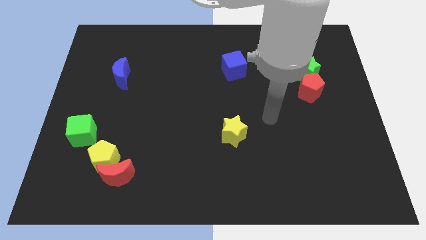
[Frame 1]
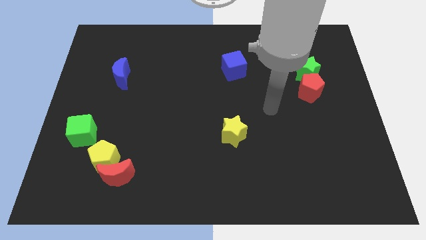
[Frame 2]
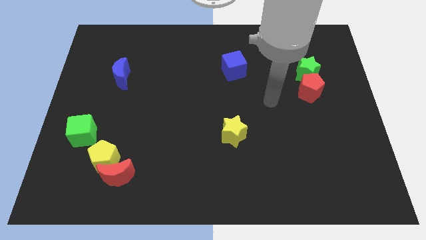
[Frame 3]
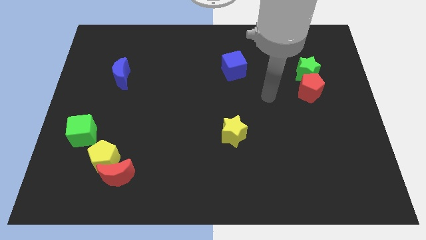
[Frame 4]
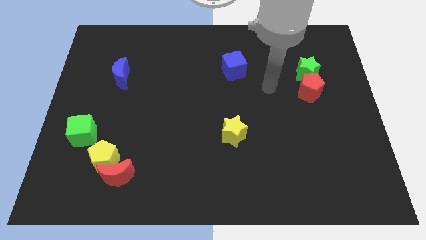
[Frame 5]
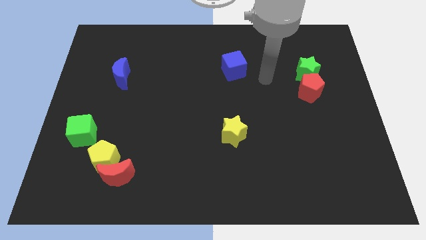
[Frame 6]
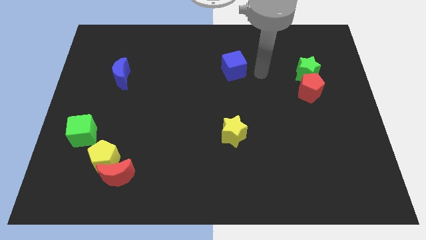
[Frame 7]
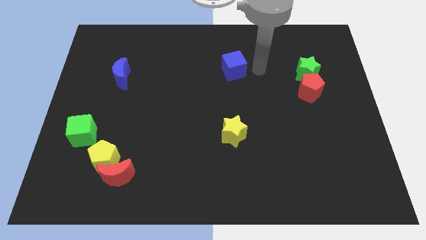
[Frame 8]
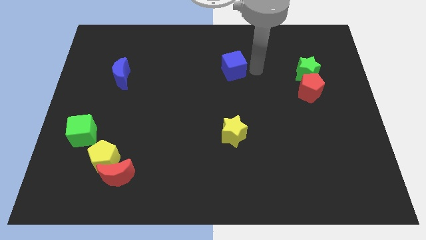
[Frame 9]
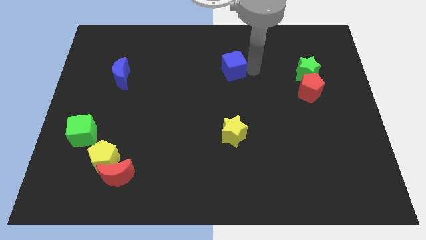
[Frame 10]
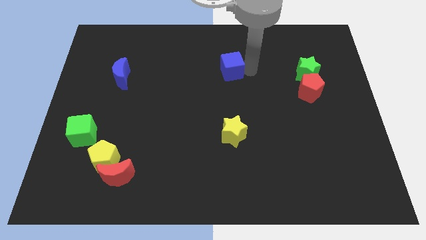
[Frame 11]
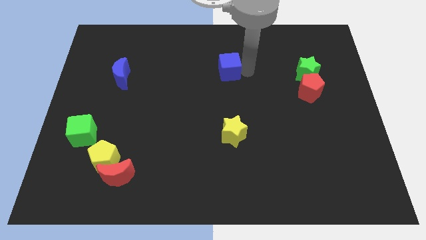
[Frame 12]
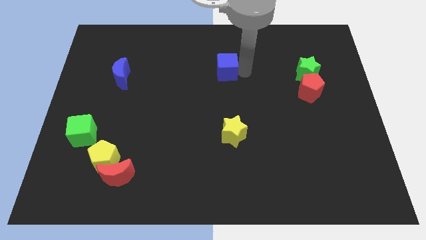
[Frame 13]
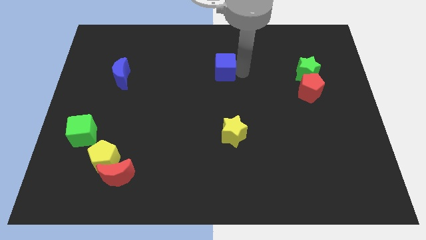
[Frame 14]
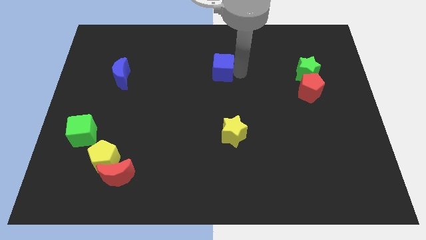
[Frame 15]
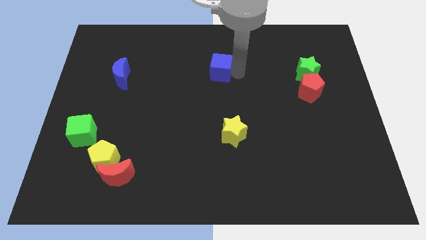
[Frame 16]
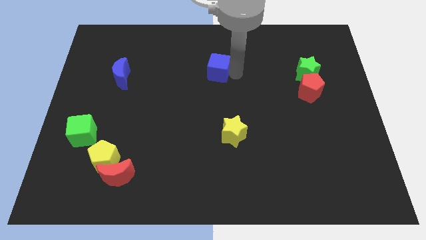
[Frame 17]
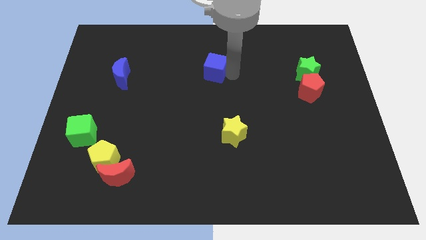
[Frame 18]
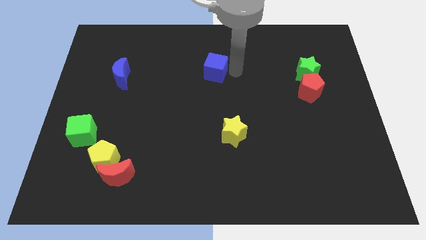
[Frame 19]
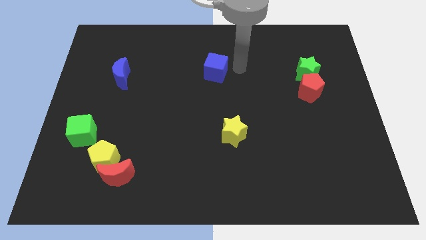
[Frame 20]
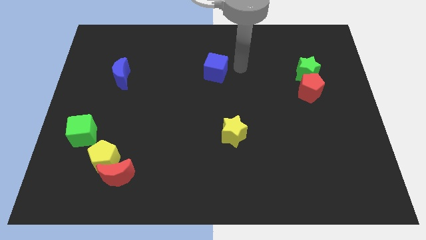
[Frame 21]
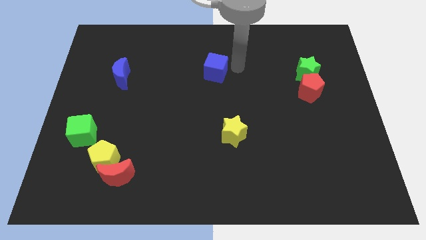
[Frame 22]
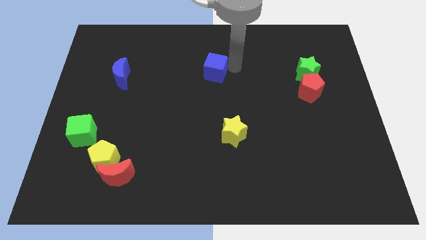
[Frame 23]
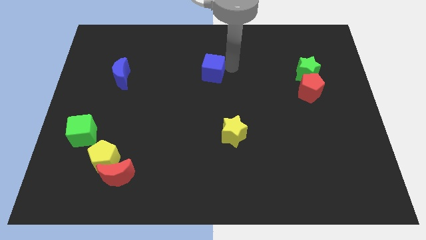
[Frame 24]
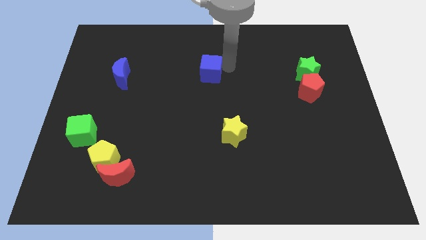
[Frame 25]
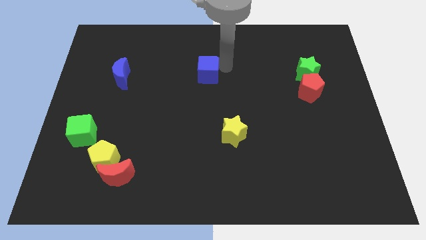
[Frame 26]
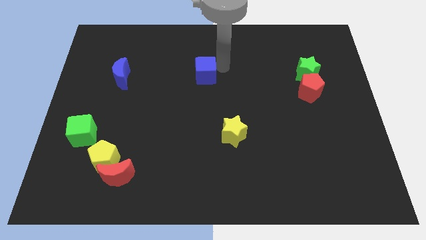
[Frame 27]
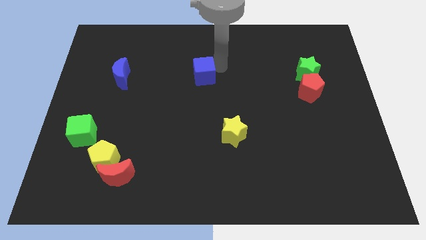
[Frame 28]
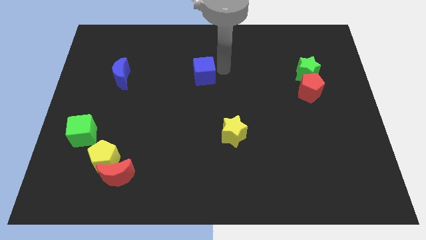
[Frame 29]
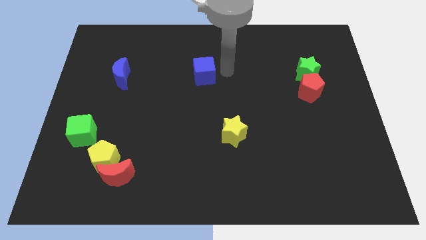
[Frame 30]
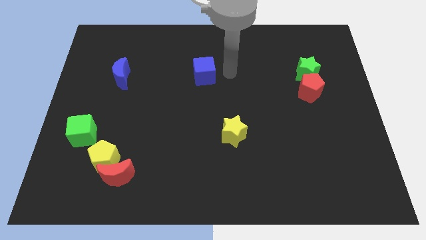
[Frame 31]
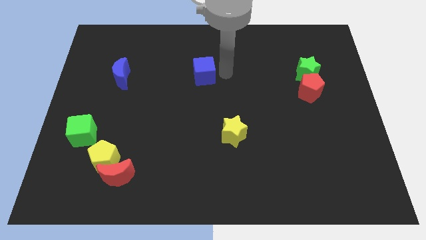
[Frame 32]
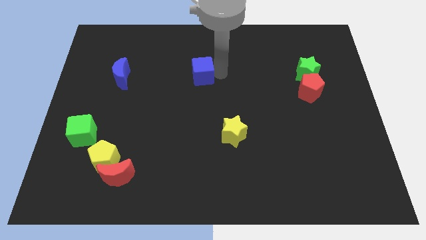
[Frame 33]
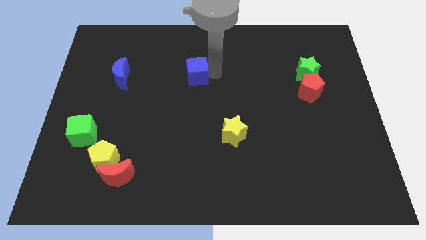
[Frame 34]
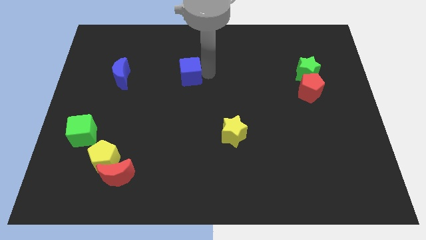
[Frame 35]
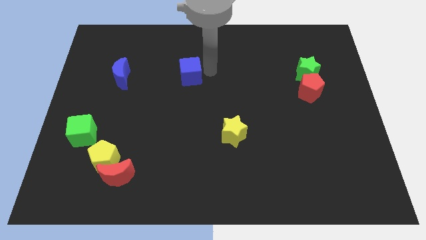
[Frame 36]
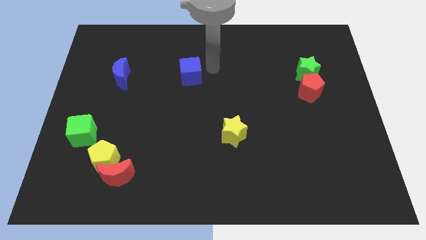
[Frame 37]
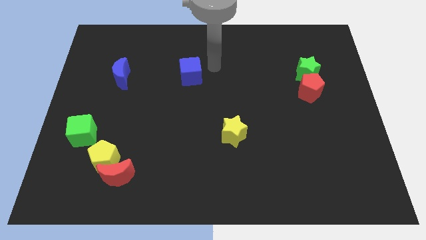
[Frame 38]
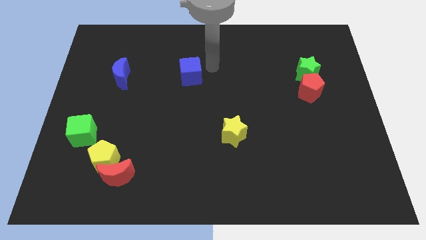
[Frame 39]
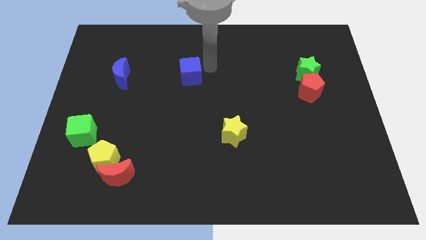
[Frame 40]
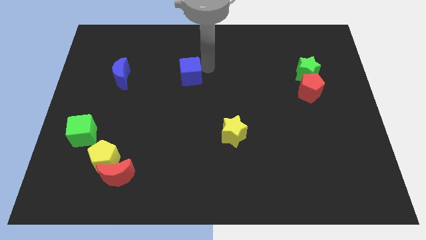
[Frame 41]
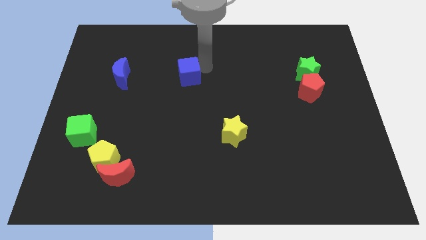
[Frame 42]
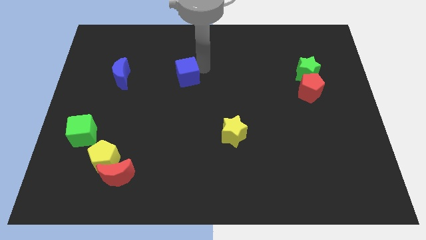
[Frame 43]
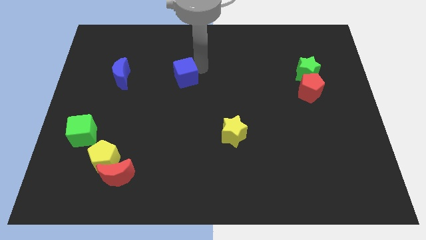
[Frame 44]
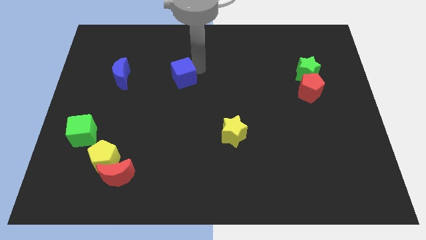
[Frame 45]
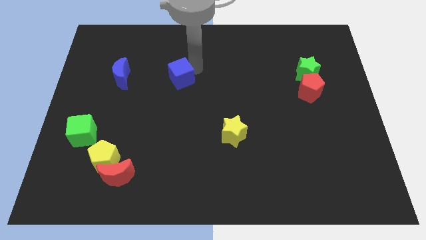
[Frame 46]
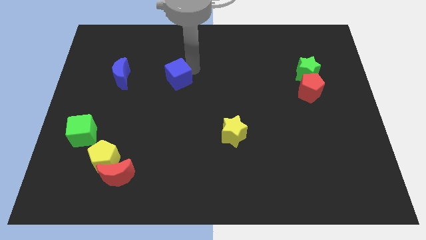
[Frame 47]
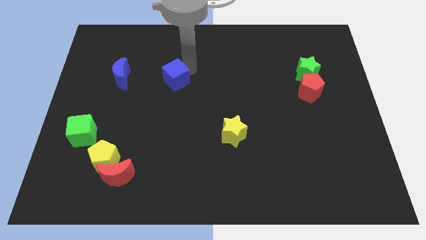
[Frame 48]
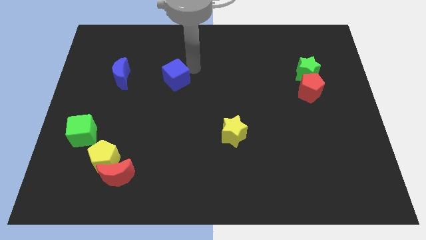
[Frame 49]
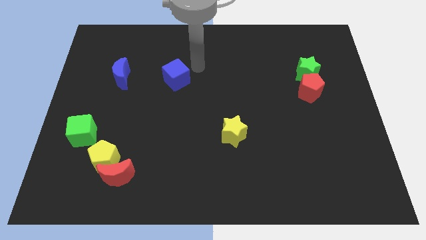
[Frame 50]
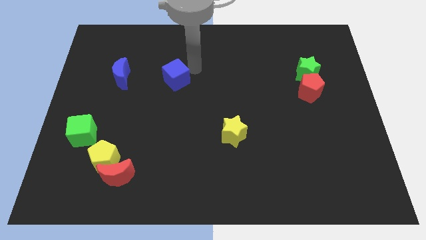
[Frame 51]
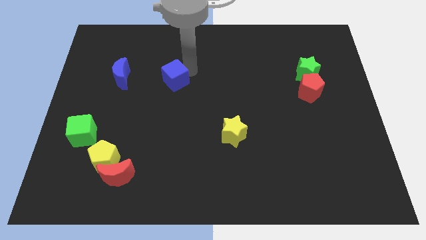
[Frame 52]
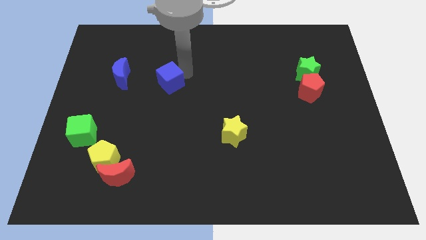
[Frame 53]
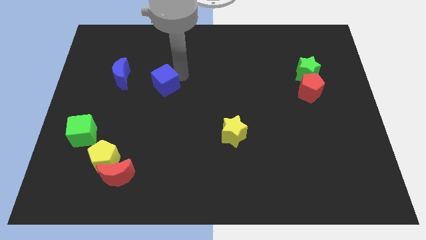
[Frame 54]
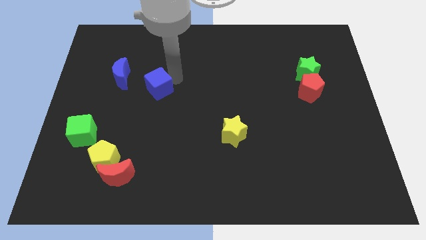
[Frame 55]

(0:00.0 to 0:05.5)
push the blue cube diagonally down and to the right of the blue moon
